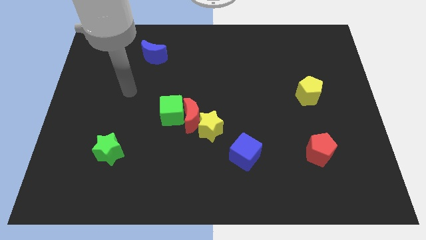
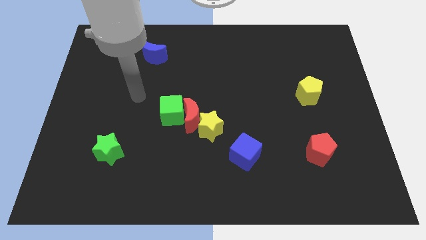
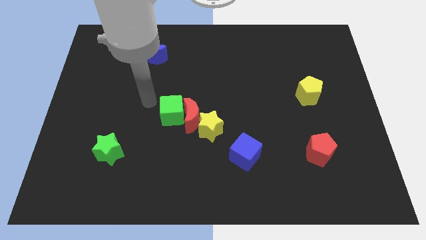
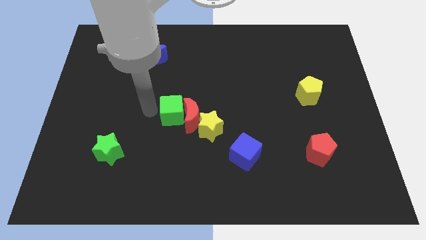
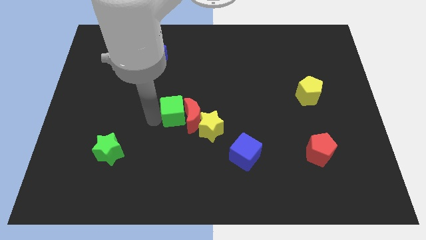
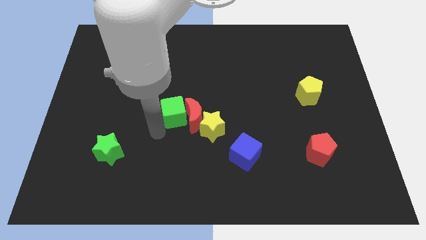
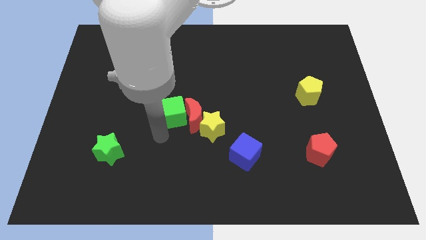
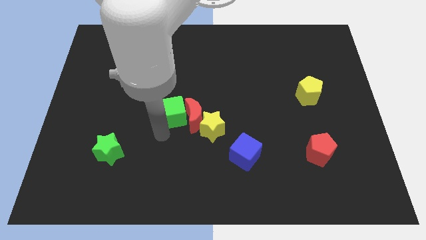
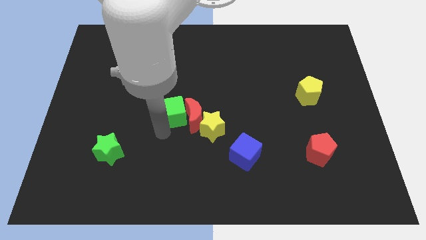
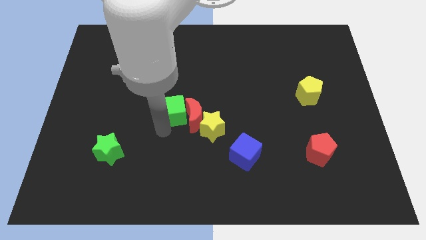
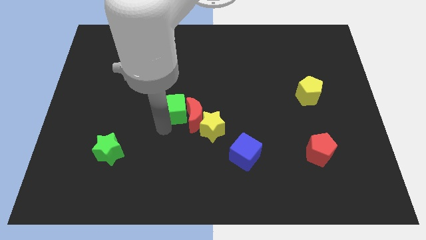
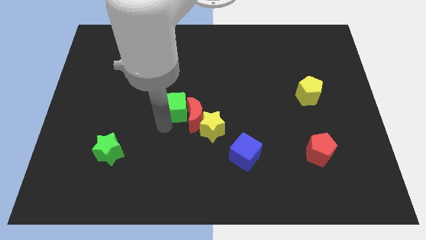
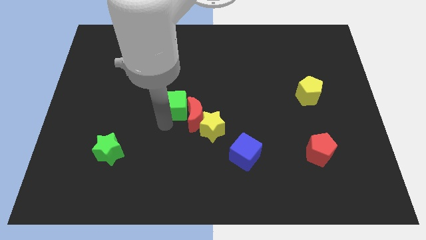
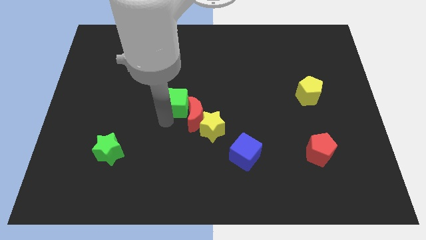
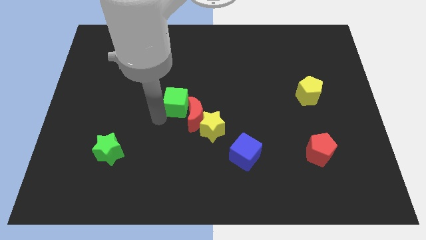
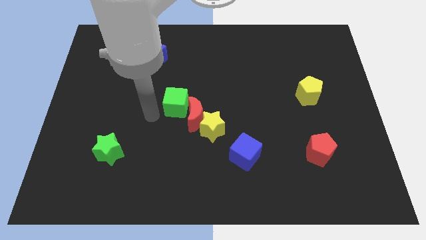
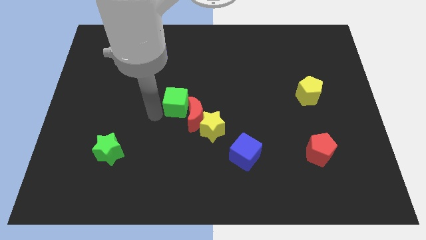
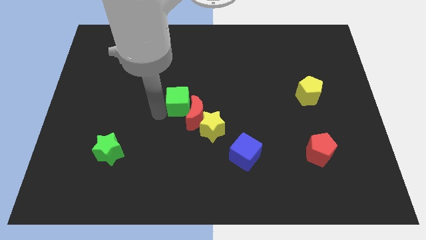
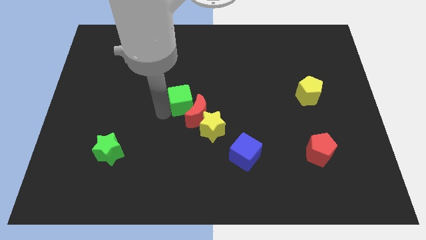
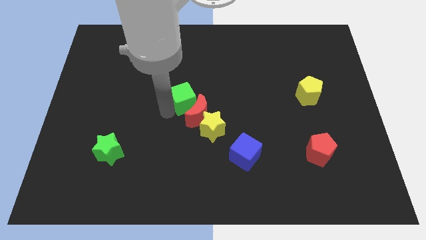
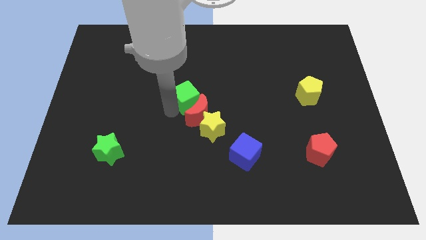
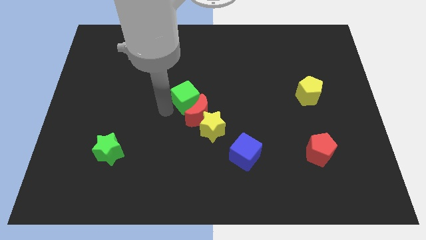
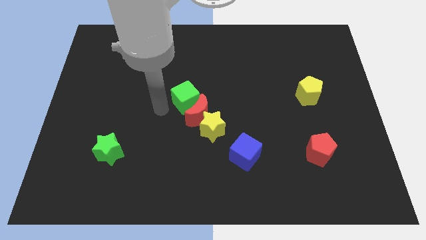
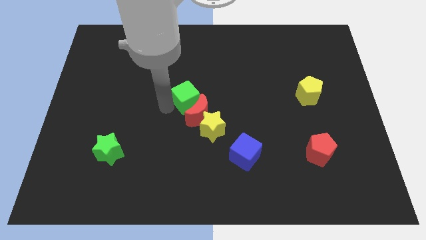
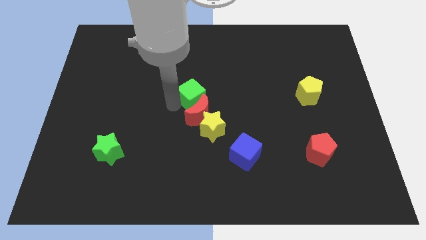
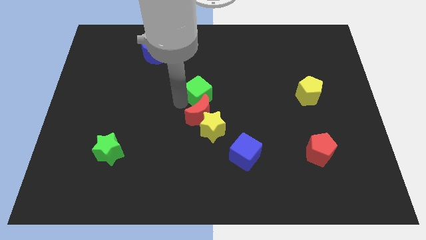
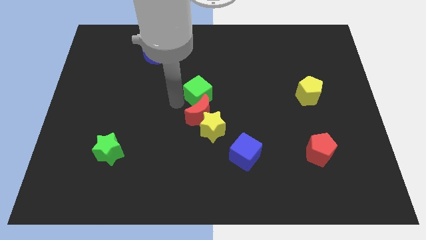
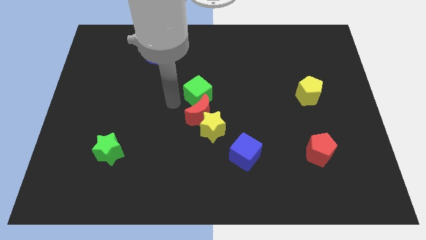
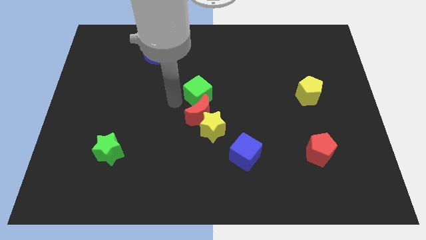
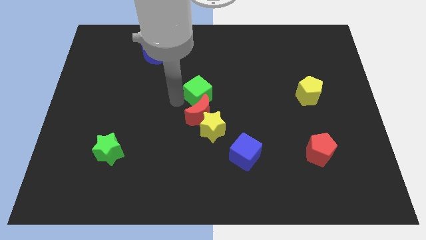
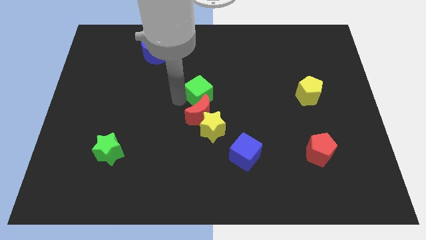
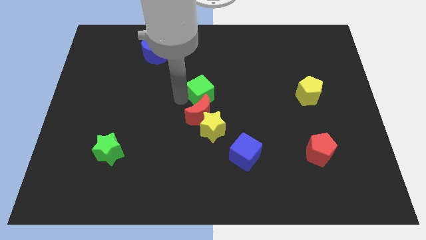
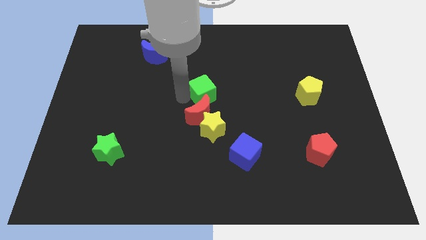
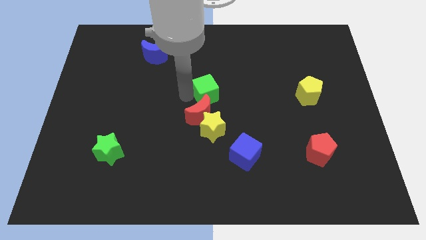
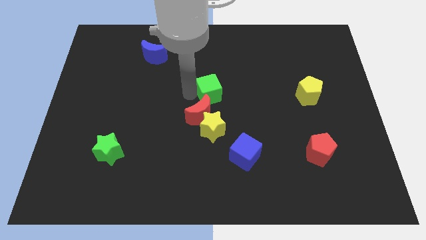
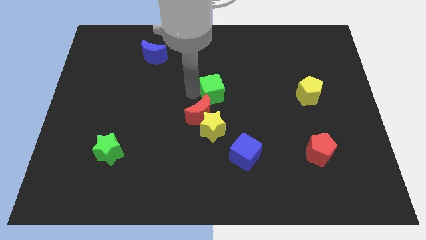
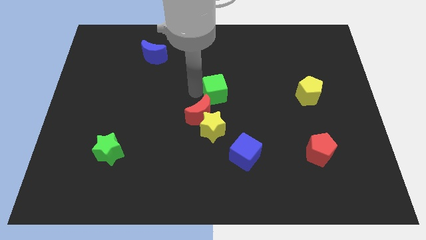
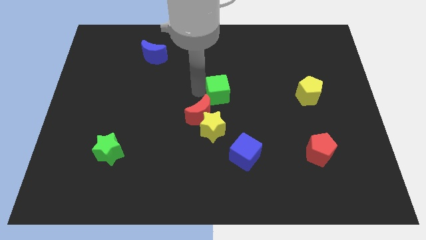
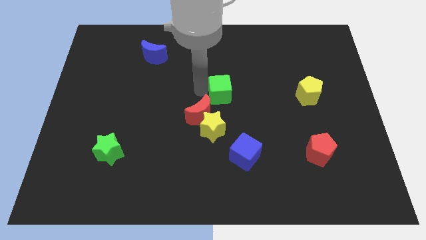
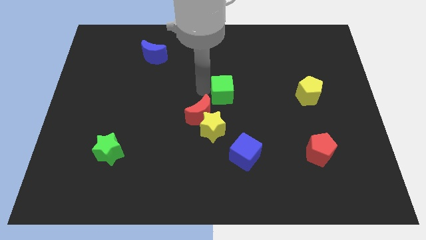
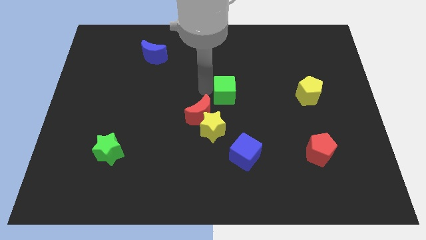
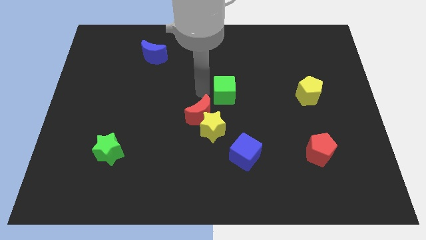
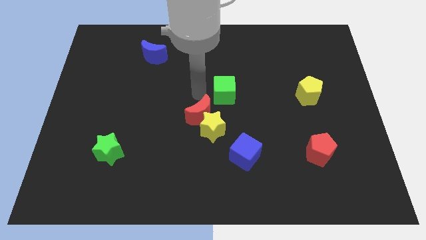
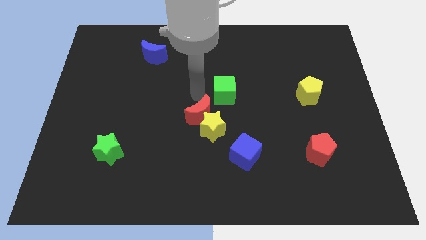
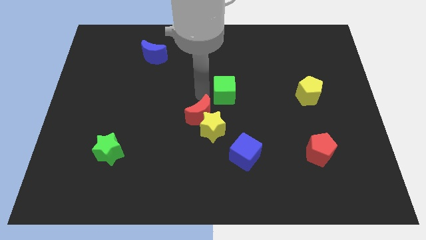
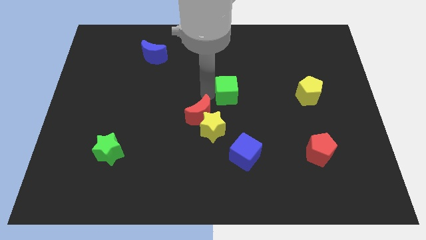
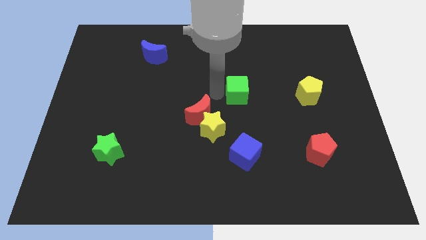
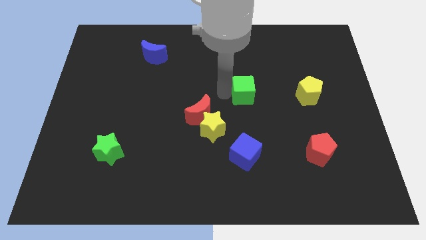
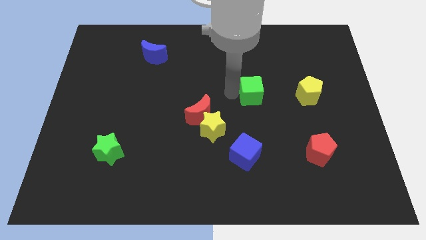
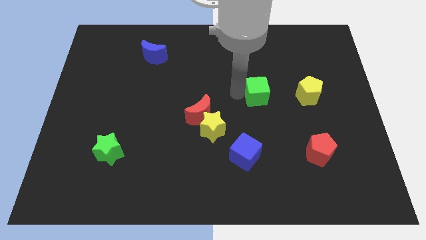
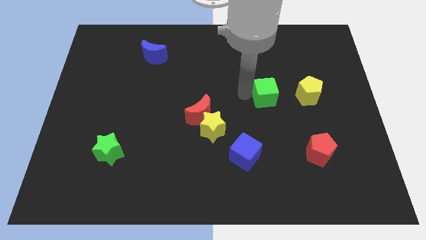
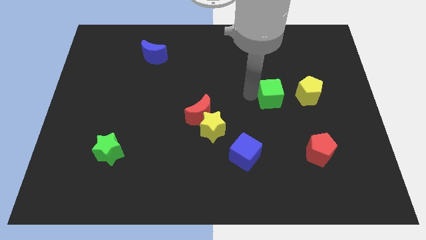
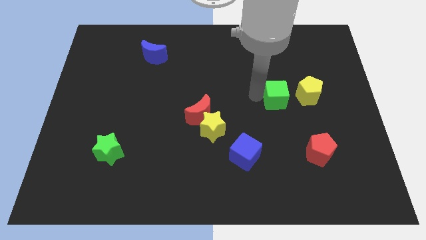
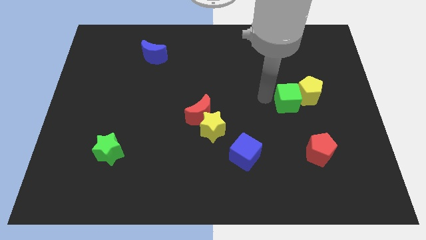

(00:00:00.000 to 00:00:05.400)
push the green cube towards the yellow pentagon

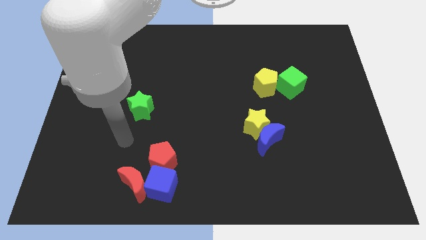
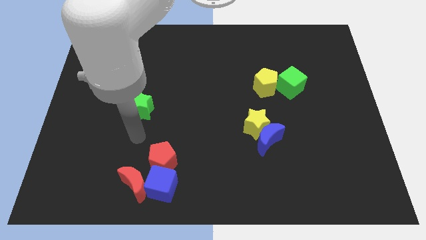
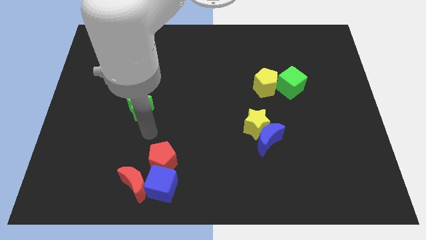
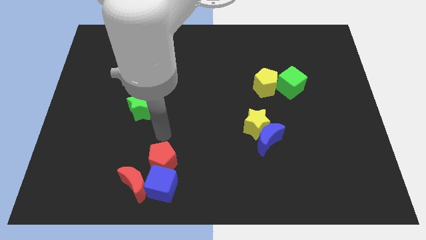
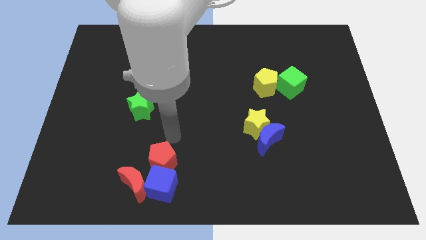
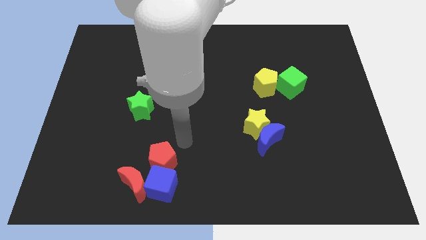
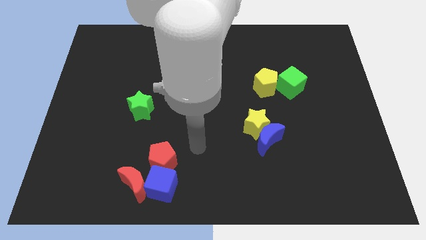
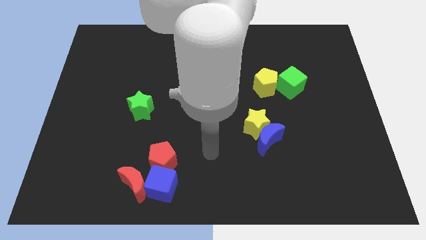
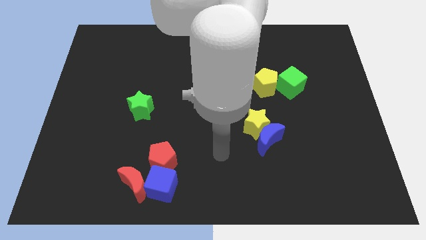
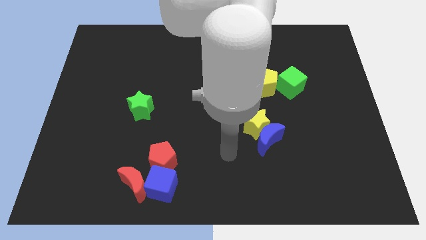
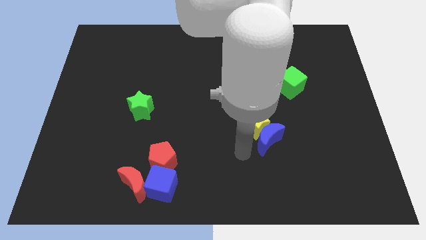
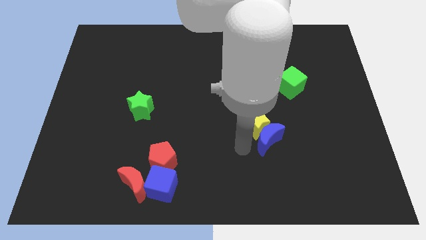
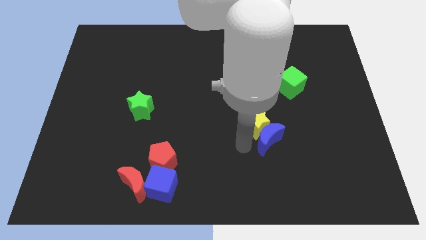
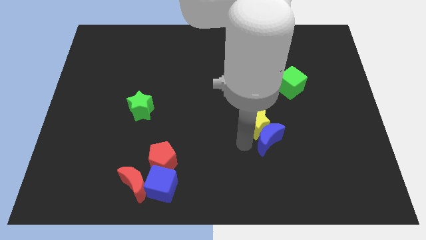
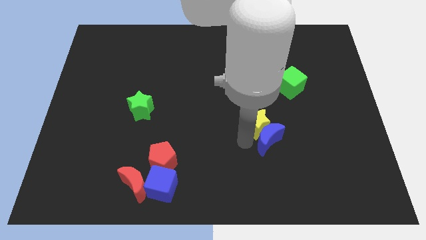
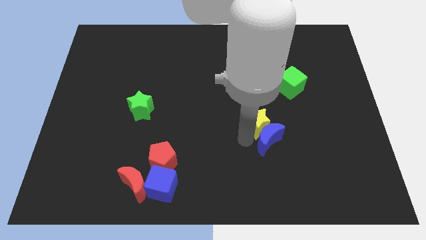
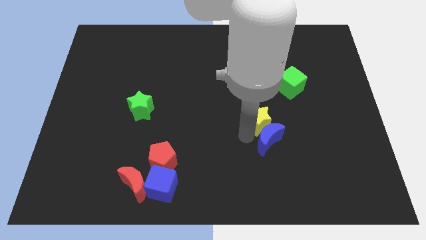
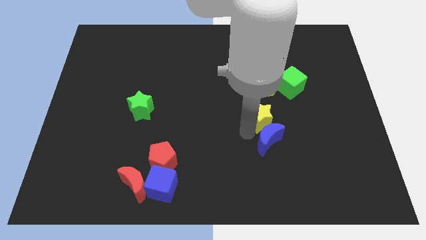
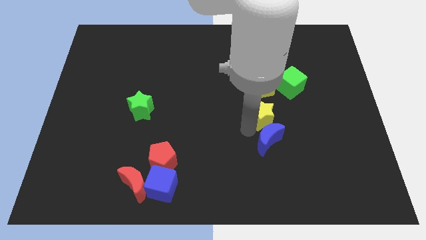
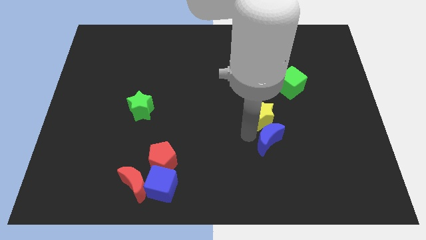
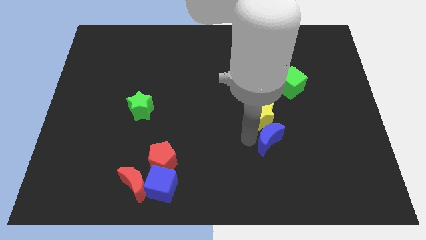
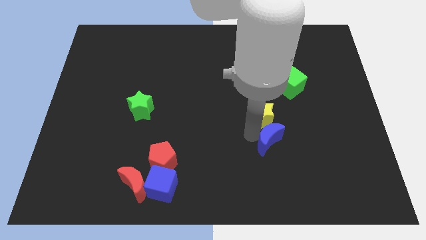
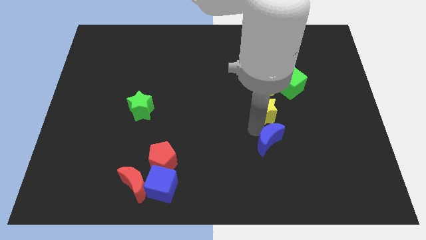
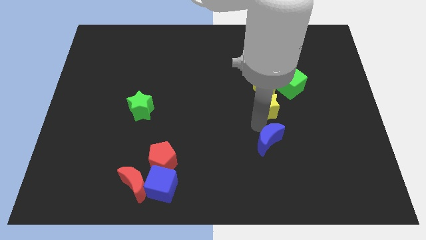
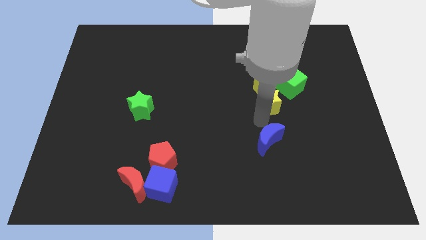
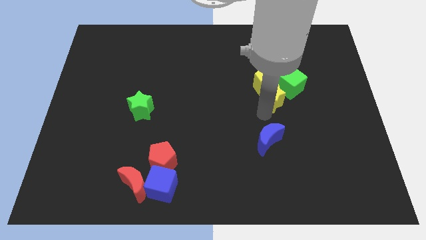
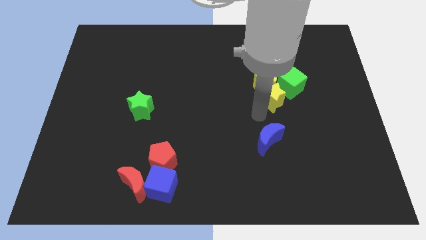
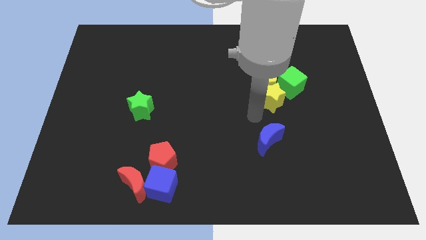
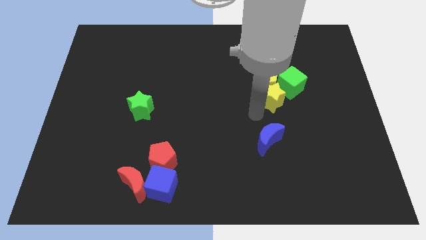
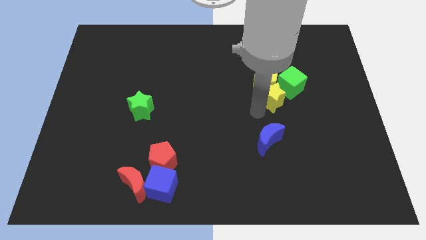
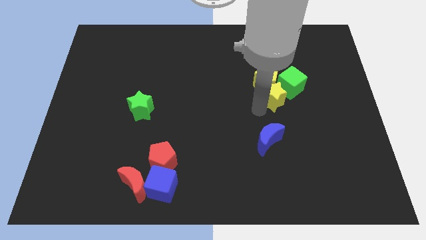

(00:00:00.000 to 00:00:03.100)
slide the yellow star to the green cube
